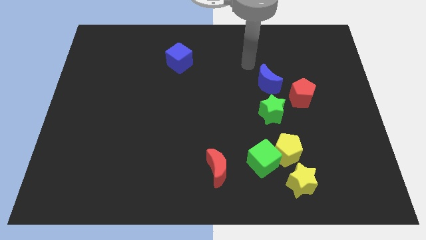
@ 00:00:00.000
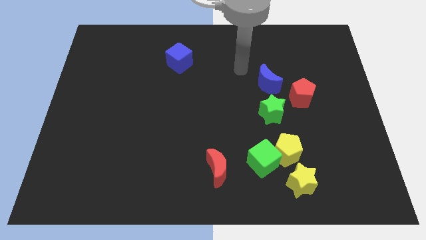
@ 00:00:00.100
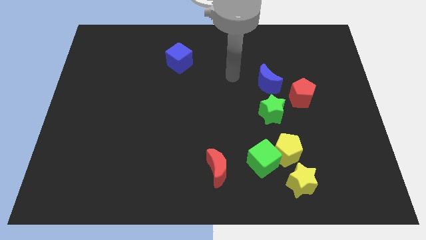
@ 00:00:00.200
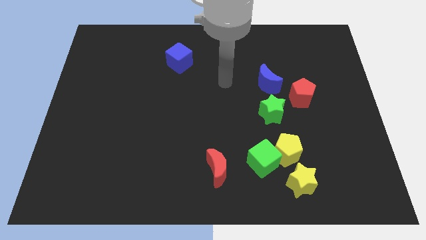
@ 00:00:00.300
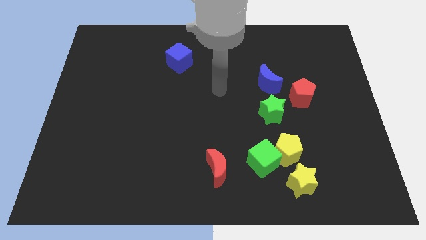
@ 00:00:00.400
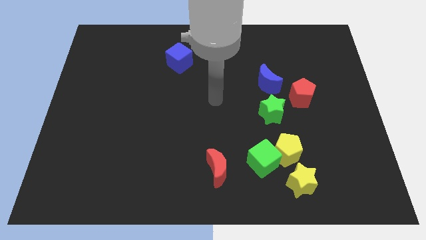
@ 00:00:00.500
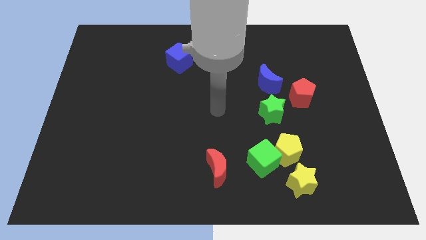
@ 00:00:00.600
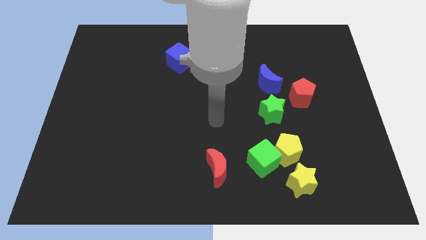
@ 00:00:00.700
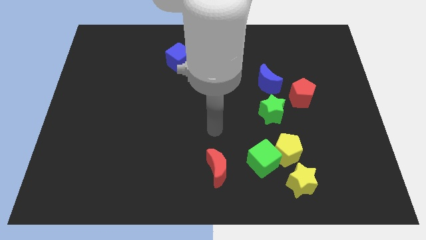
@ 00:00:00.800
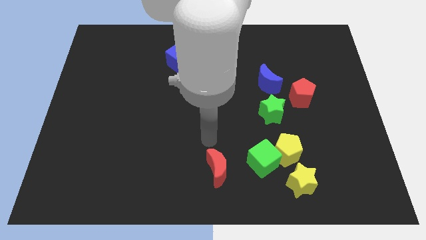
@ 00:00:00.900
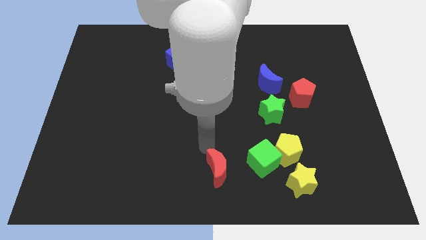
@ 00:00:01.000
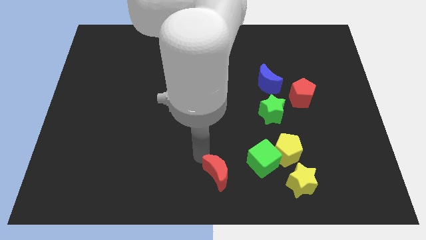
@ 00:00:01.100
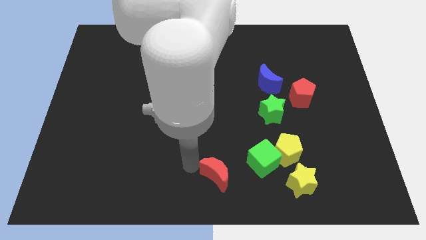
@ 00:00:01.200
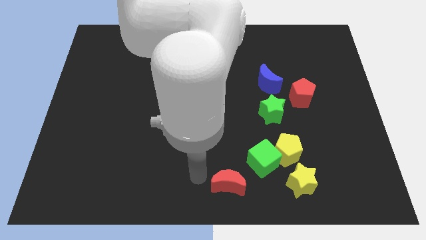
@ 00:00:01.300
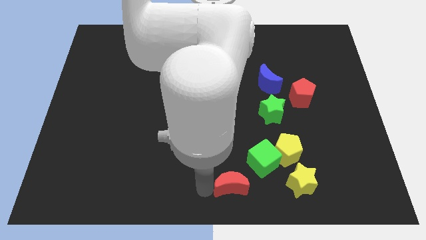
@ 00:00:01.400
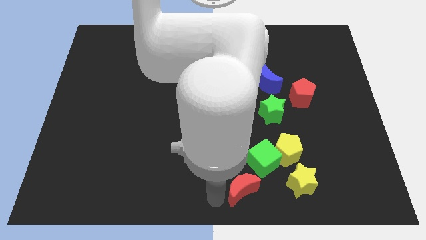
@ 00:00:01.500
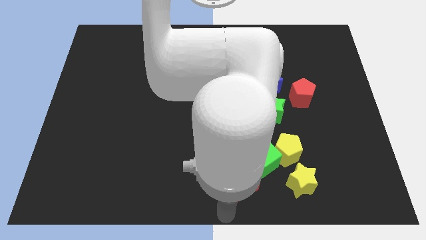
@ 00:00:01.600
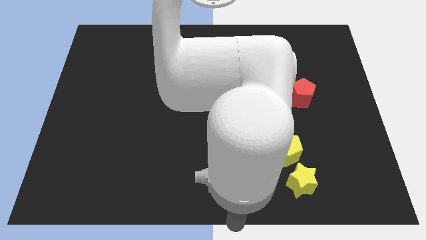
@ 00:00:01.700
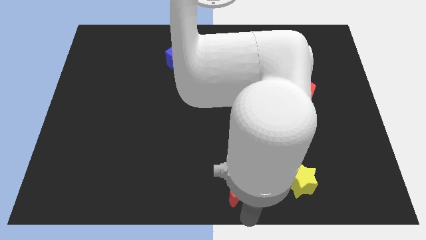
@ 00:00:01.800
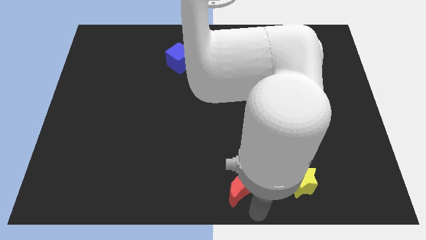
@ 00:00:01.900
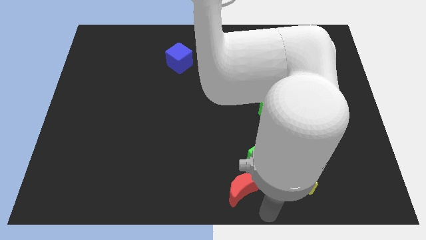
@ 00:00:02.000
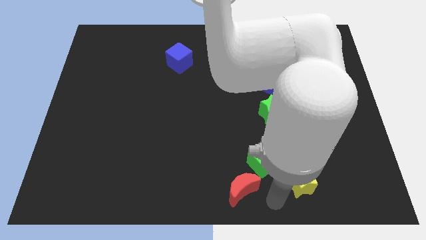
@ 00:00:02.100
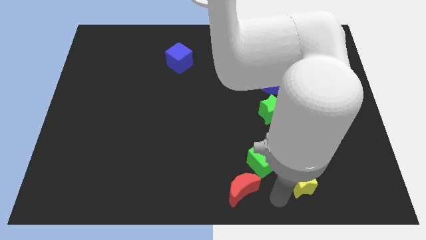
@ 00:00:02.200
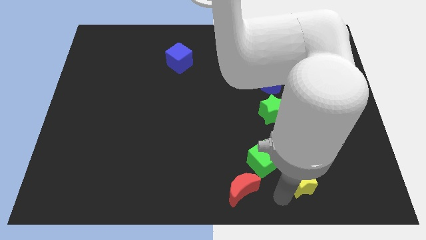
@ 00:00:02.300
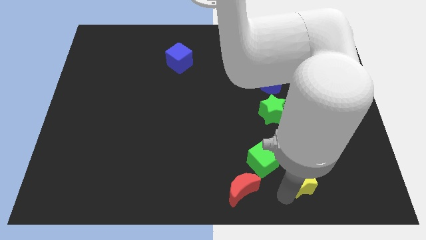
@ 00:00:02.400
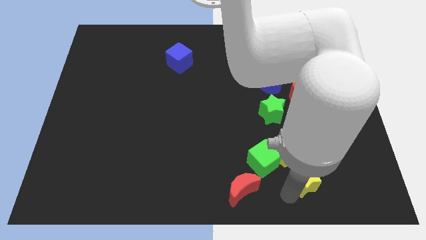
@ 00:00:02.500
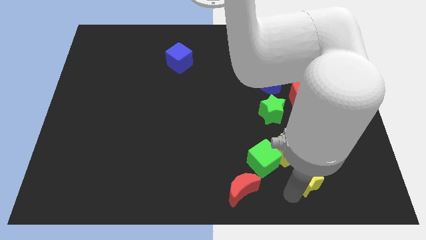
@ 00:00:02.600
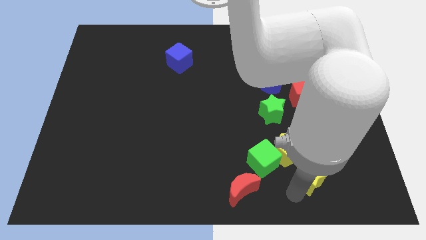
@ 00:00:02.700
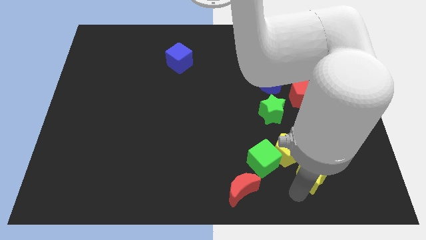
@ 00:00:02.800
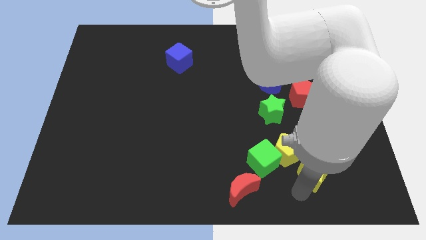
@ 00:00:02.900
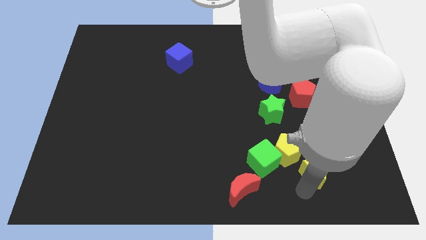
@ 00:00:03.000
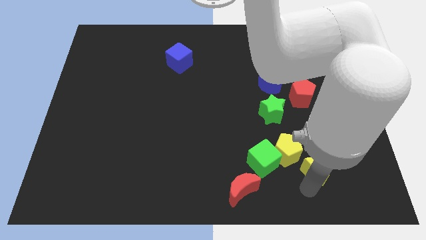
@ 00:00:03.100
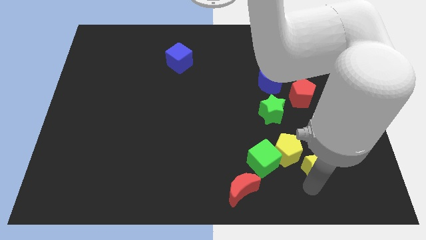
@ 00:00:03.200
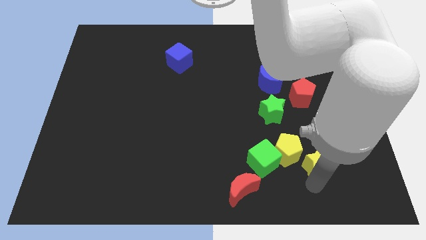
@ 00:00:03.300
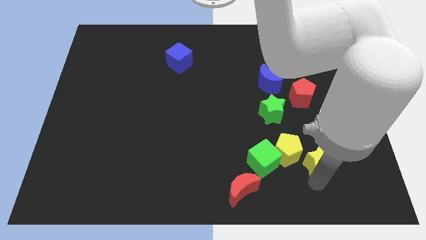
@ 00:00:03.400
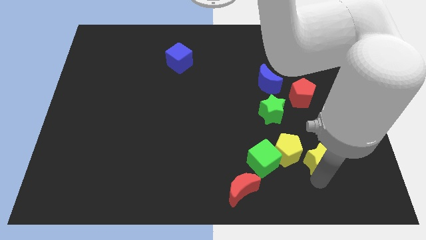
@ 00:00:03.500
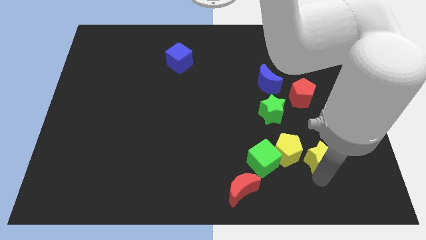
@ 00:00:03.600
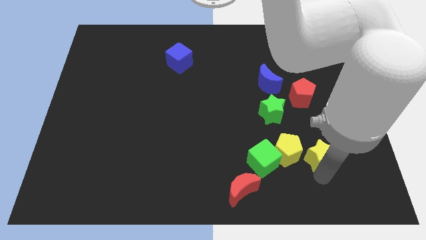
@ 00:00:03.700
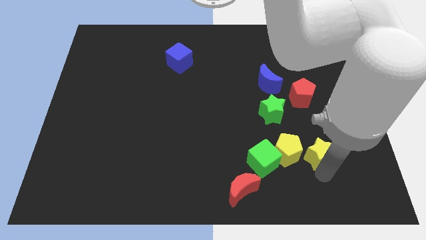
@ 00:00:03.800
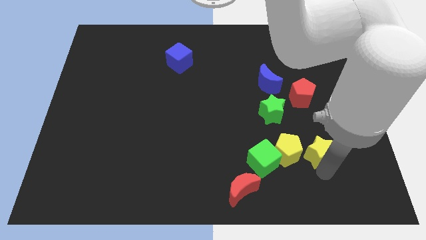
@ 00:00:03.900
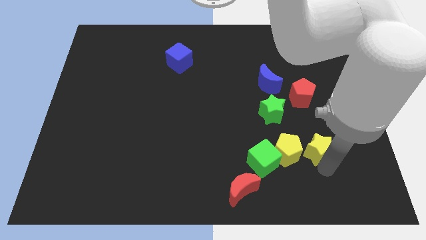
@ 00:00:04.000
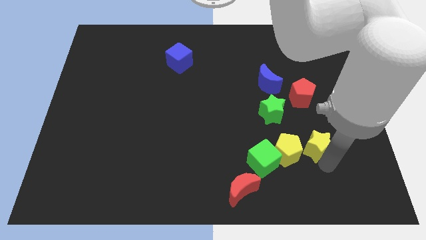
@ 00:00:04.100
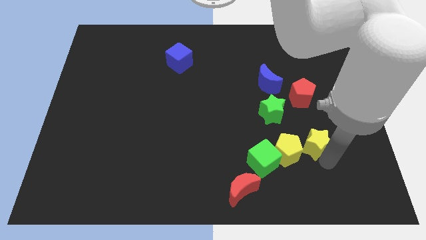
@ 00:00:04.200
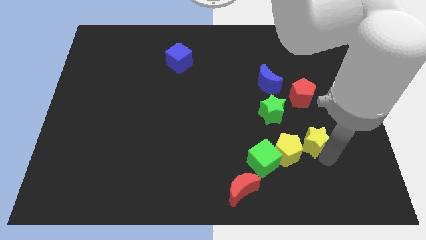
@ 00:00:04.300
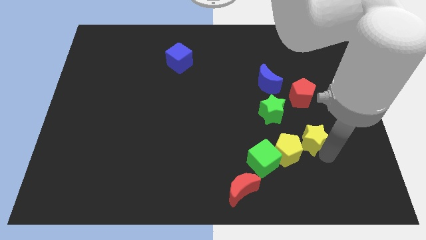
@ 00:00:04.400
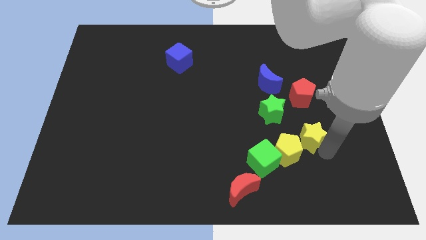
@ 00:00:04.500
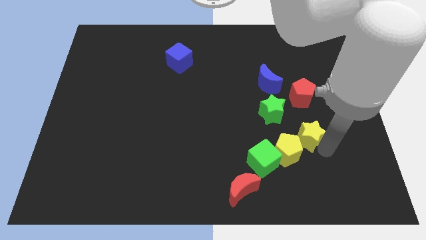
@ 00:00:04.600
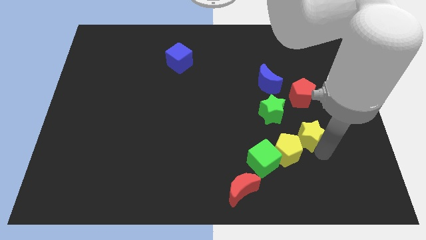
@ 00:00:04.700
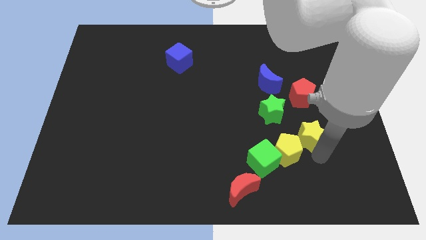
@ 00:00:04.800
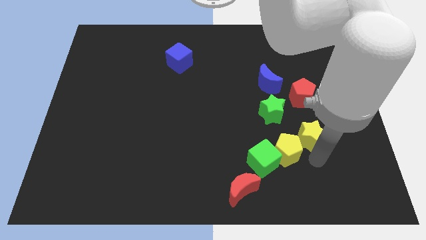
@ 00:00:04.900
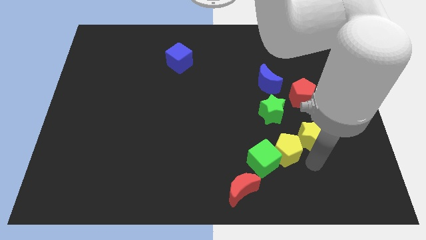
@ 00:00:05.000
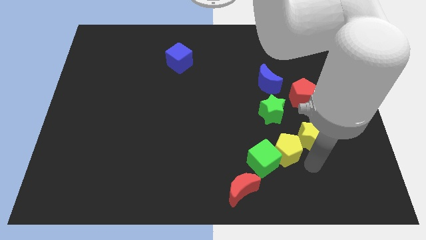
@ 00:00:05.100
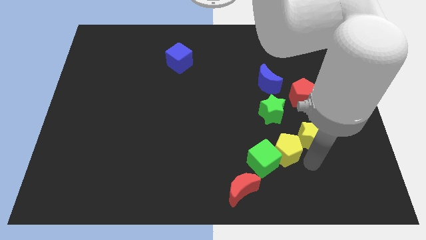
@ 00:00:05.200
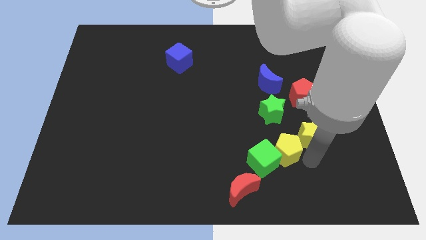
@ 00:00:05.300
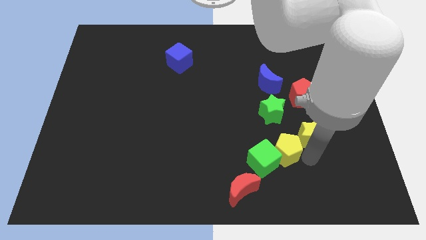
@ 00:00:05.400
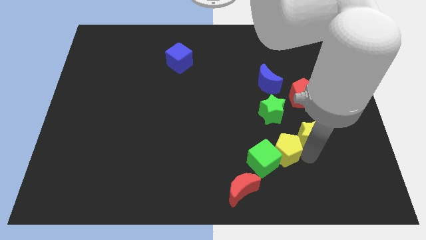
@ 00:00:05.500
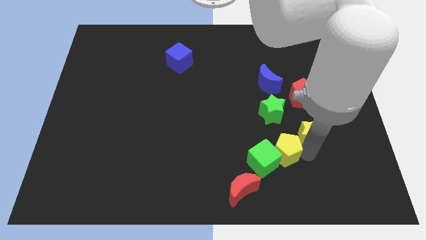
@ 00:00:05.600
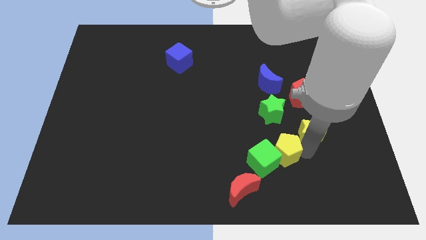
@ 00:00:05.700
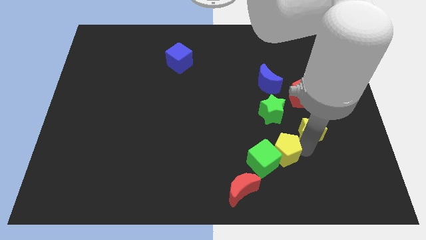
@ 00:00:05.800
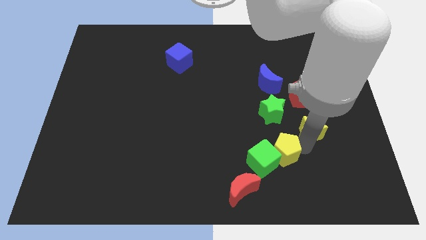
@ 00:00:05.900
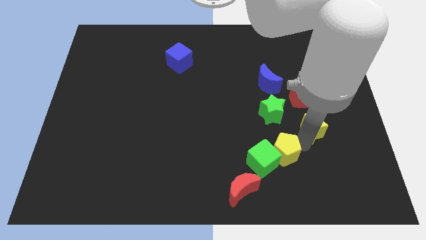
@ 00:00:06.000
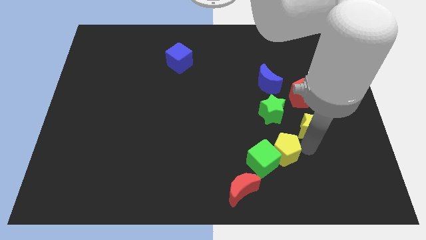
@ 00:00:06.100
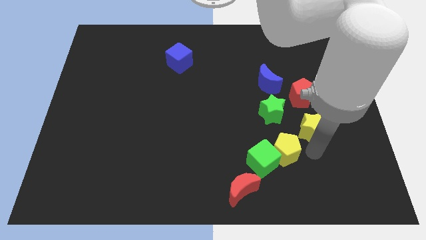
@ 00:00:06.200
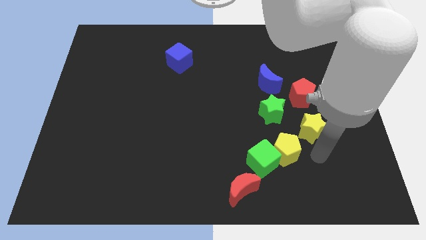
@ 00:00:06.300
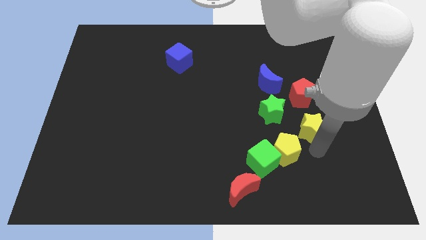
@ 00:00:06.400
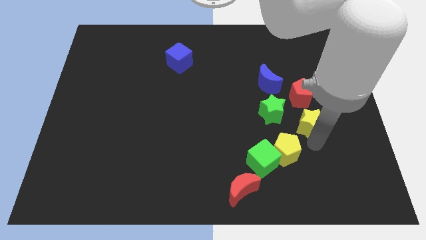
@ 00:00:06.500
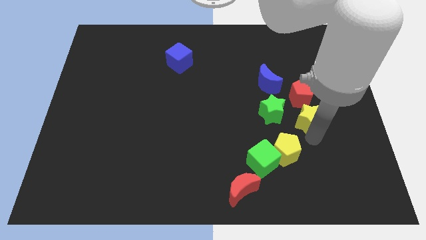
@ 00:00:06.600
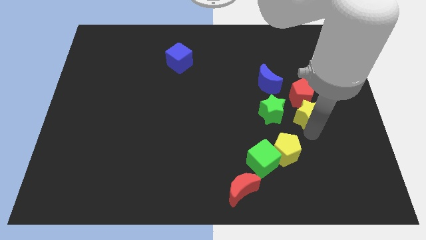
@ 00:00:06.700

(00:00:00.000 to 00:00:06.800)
push the yellow star next to the red pentagon
